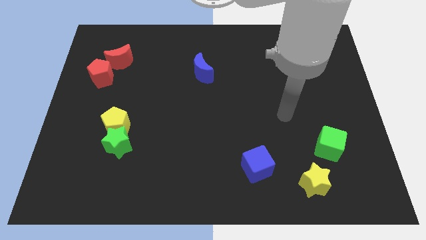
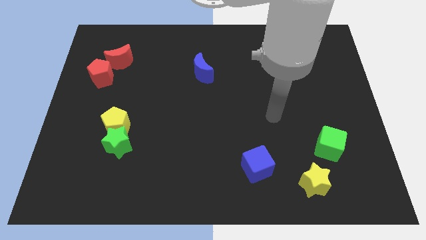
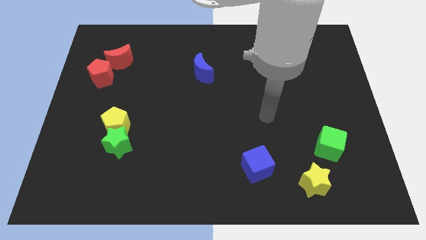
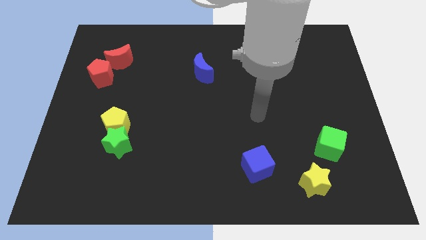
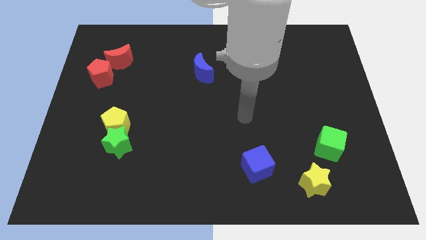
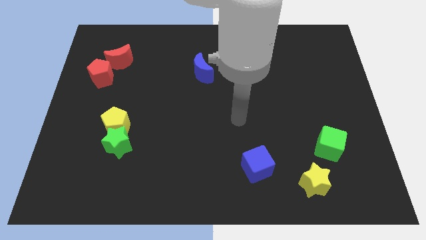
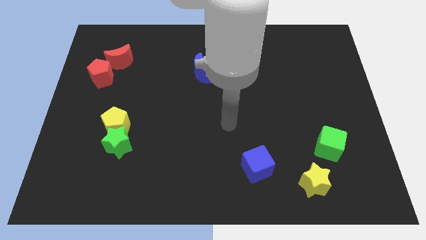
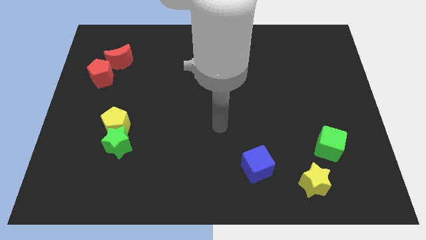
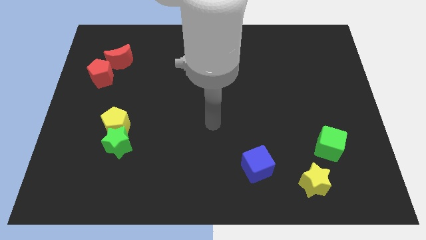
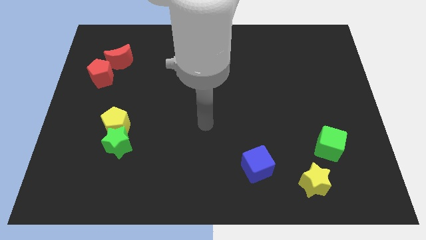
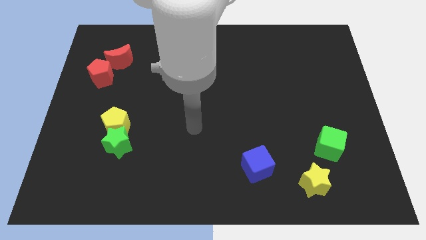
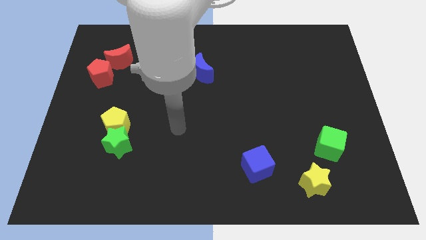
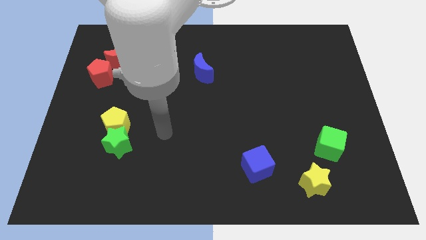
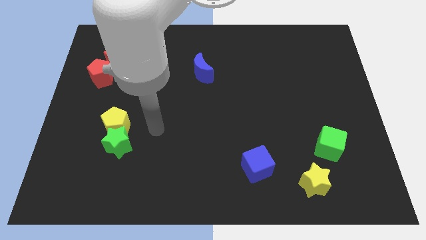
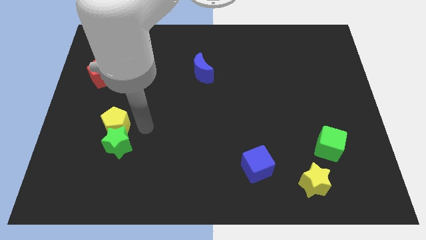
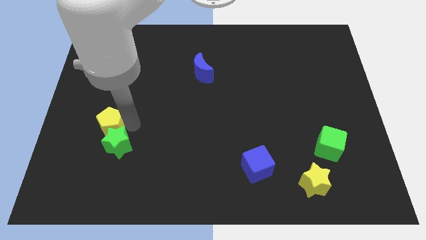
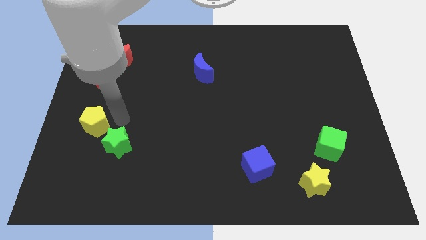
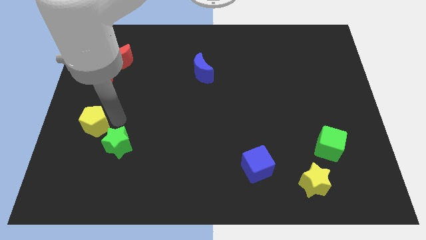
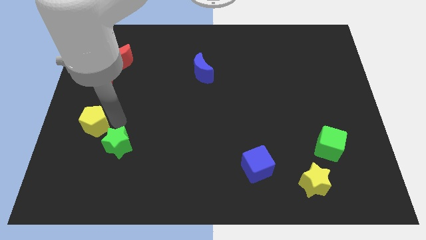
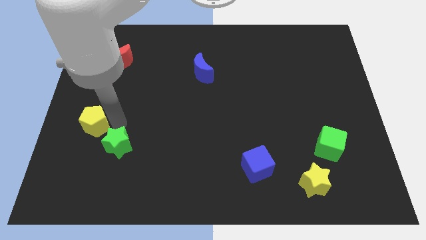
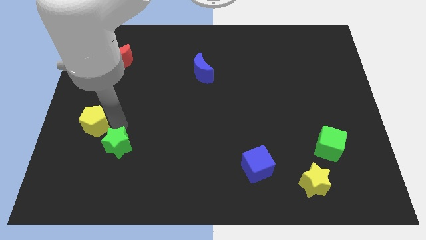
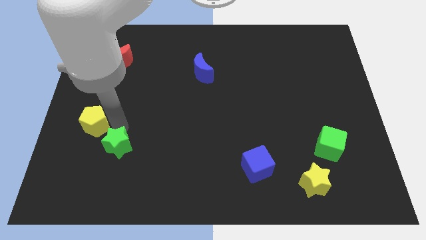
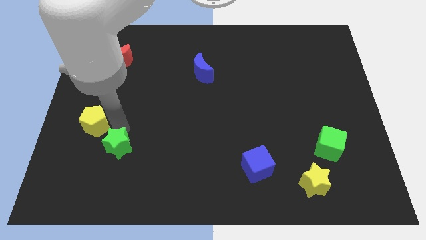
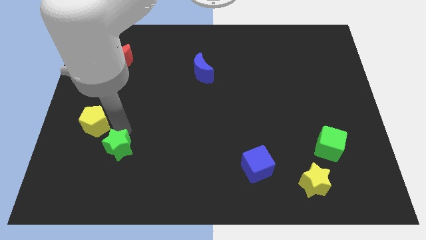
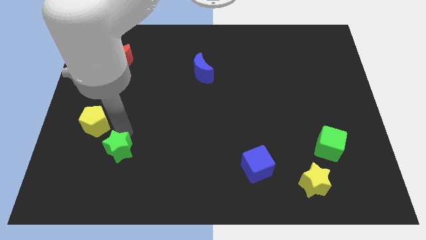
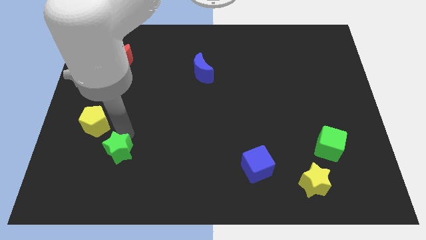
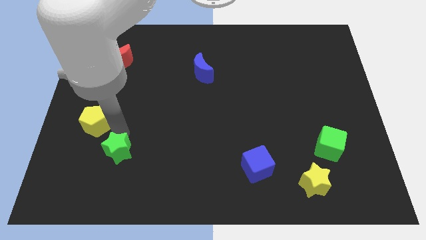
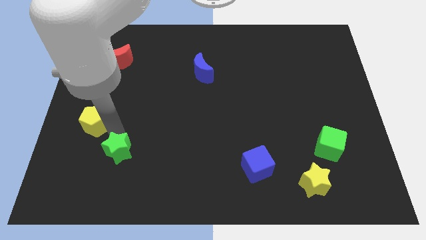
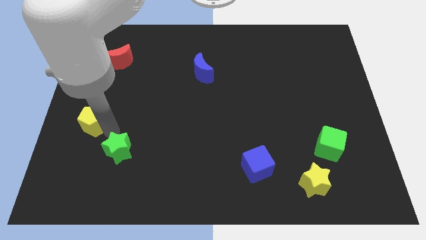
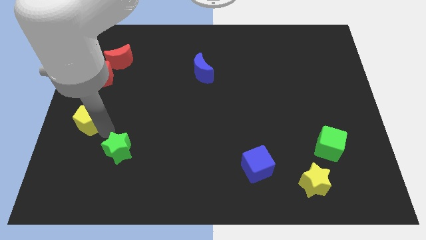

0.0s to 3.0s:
pull the green star apart from the yellow pentagon

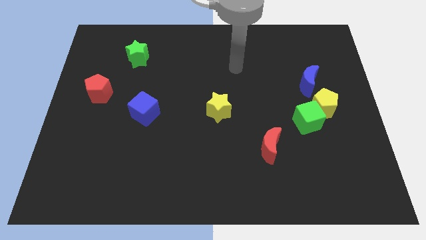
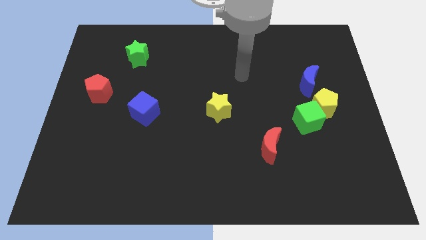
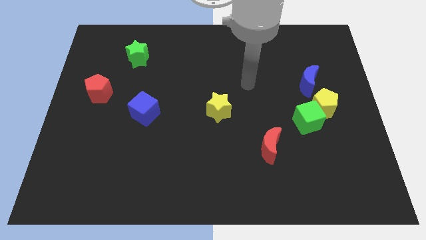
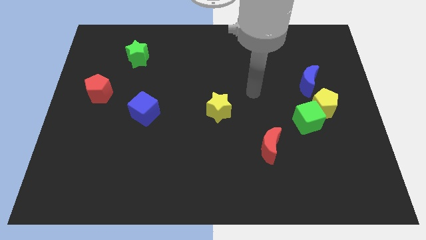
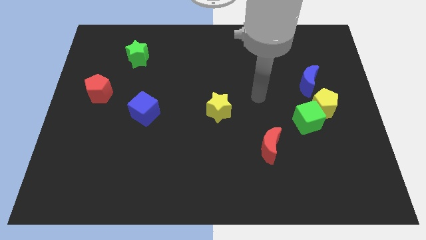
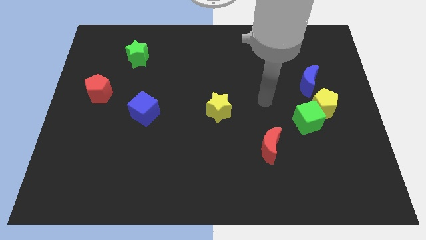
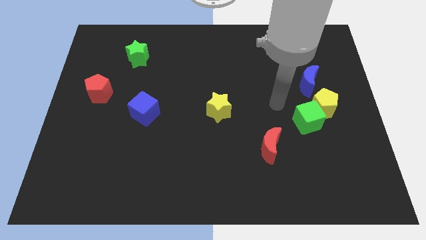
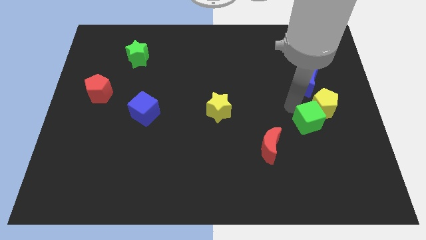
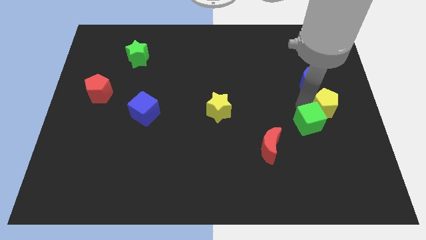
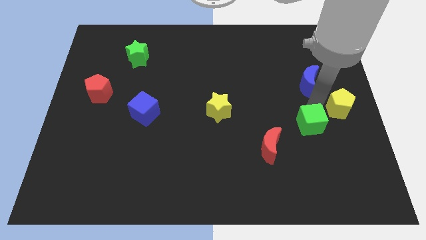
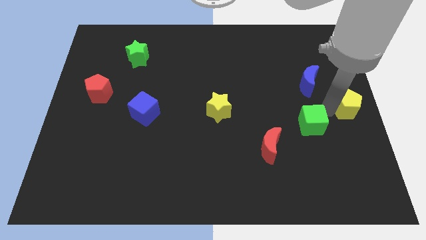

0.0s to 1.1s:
separate the green cube from the yellow pentagon

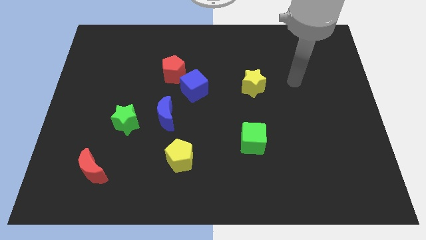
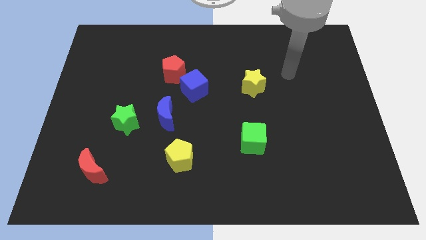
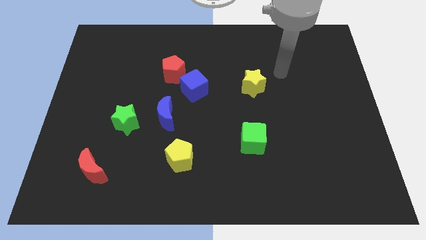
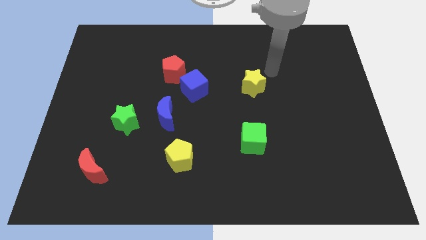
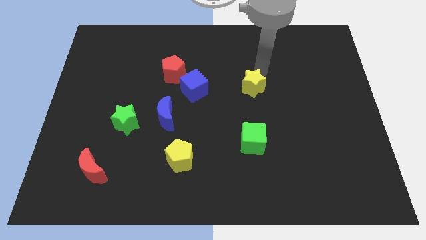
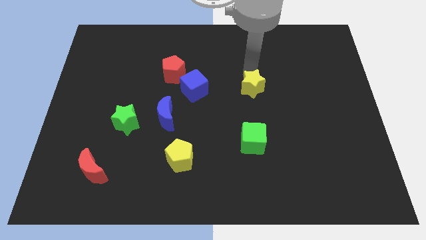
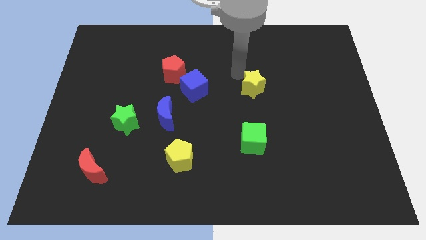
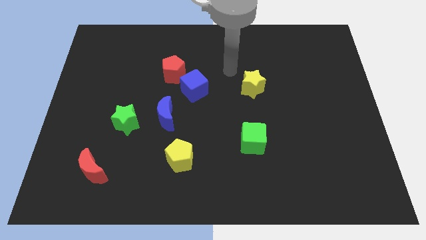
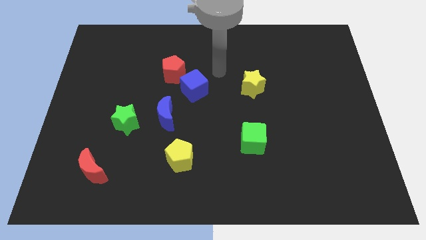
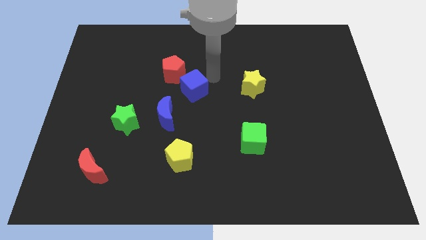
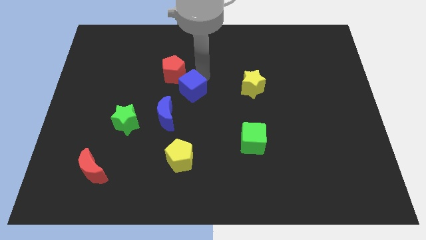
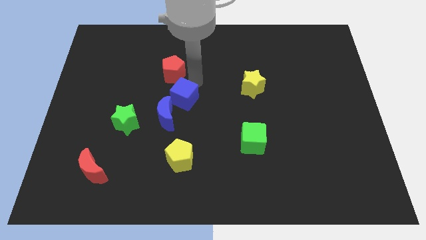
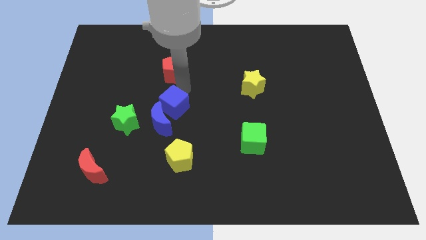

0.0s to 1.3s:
separate the red pentagon from the blue cube

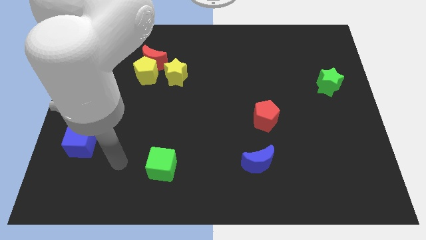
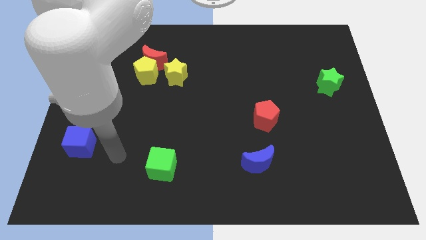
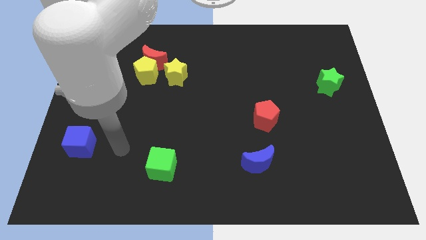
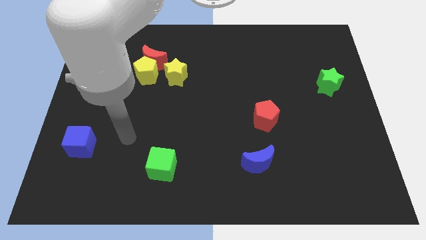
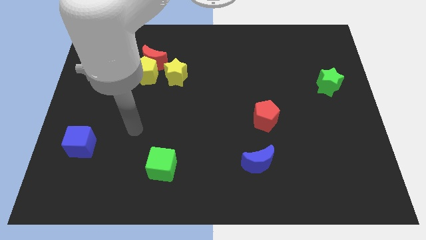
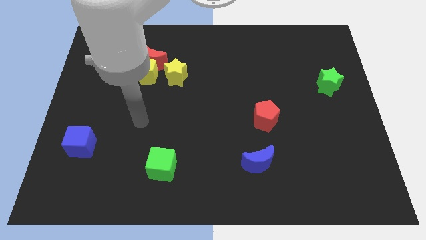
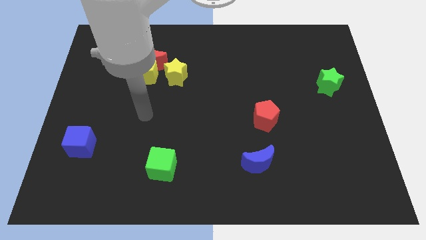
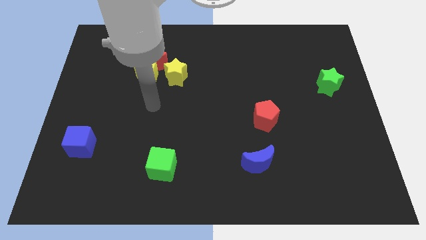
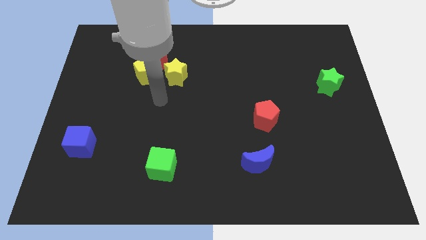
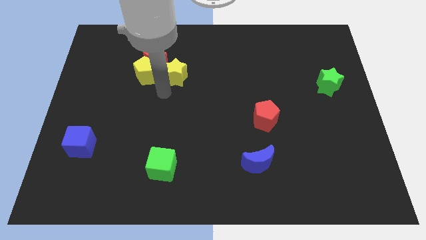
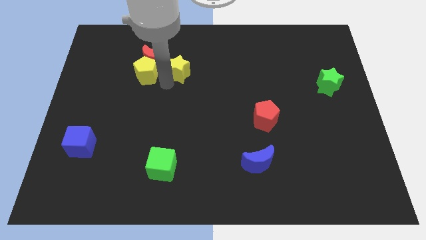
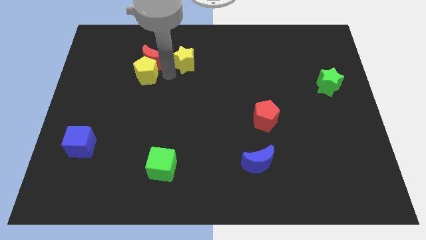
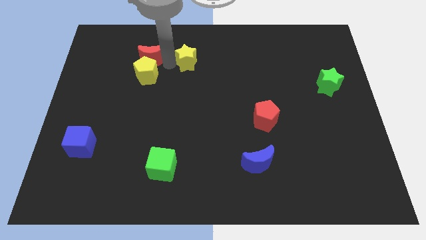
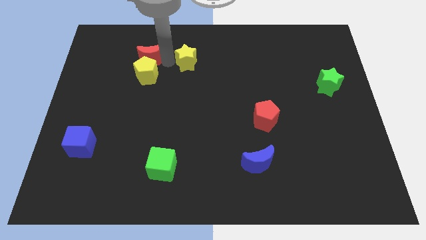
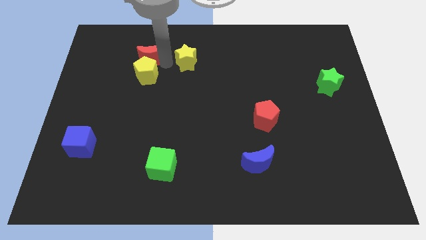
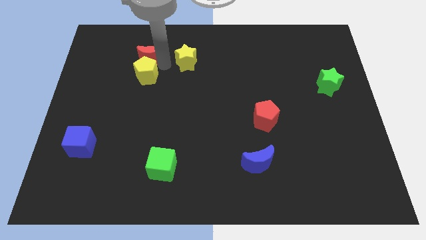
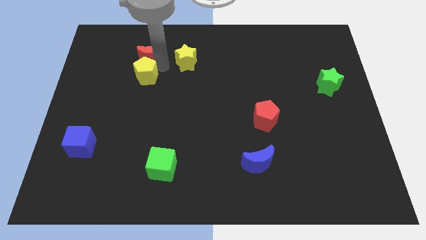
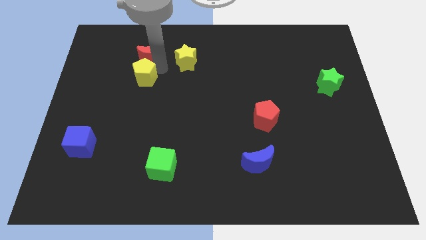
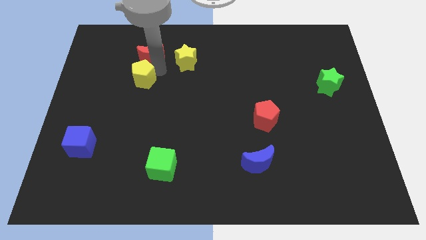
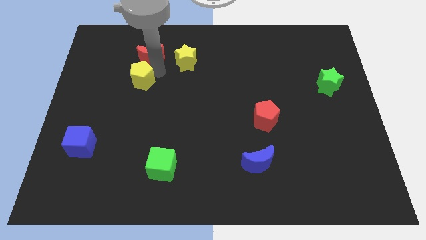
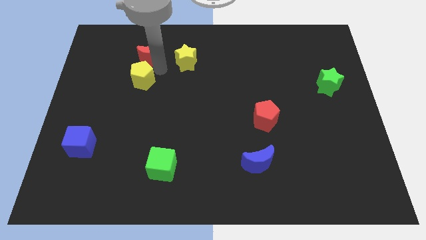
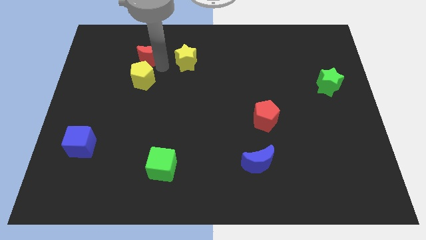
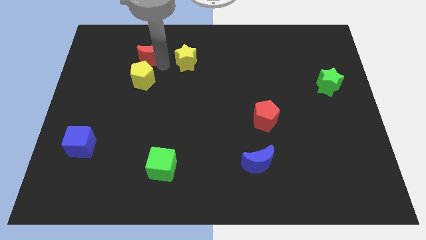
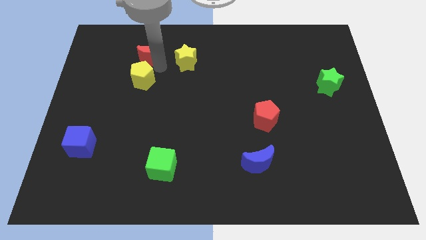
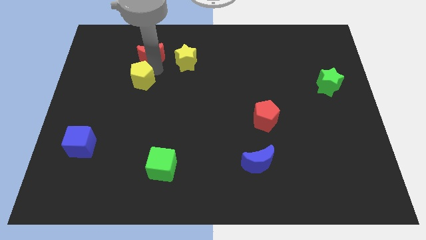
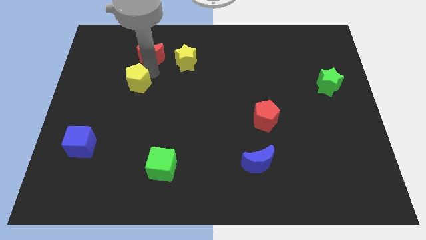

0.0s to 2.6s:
separate the yellow pentagon from the red moon and yellow star

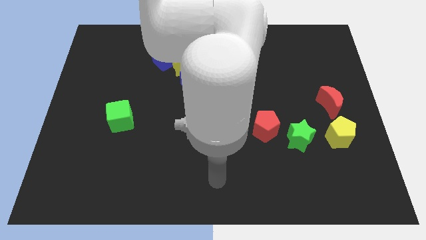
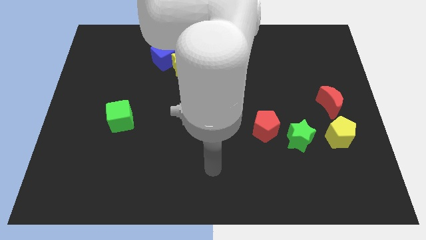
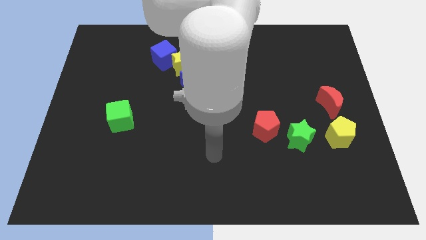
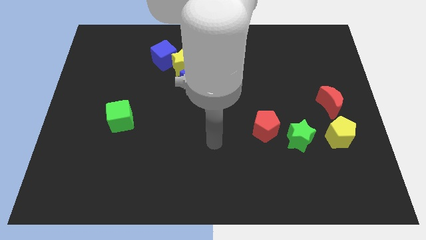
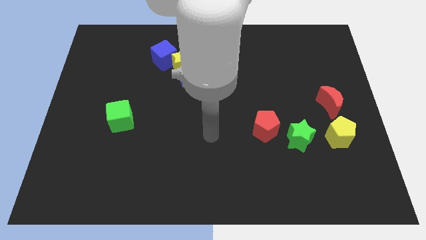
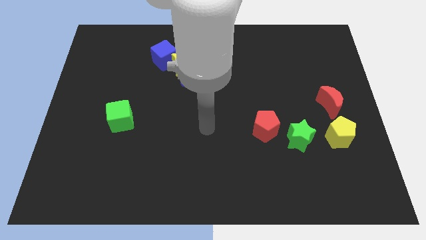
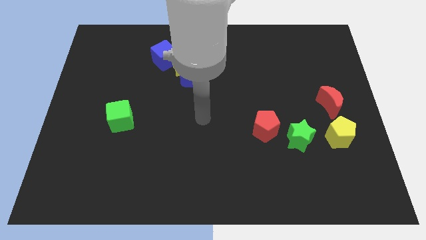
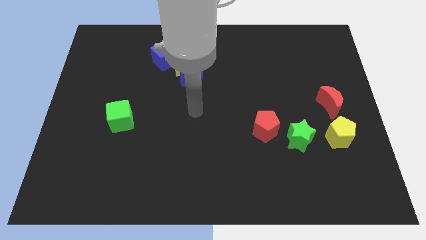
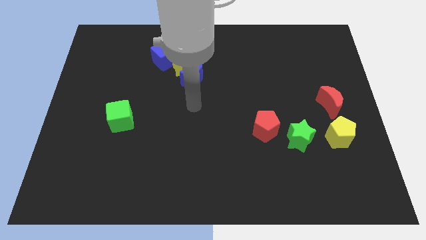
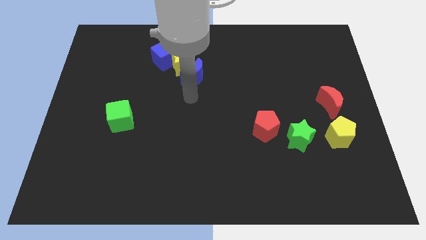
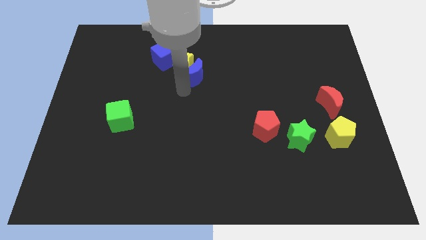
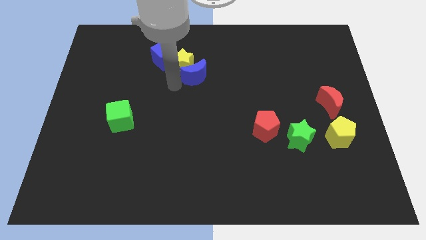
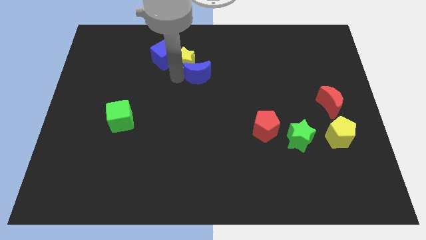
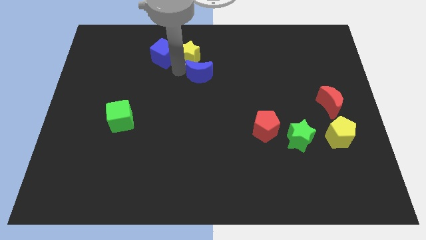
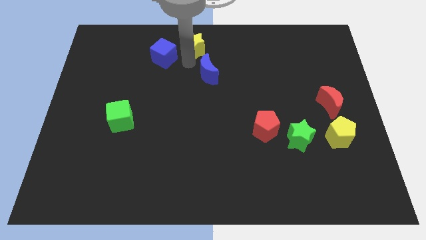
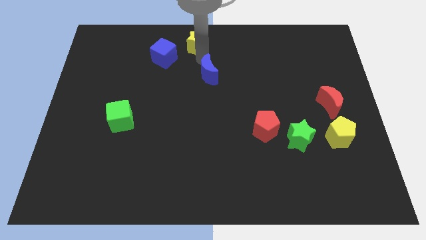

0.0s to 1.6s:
pull the blue moon apart from the yellow star
